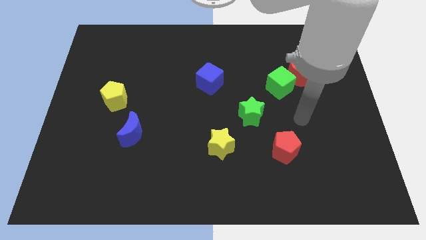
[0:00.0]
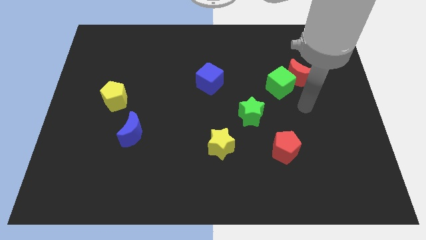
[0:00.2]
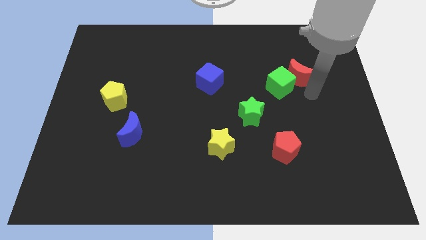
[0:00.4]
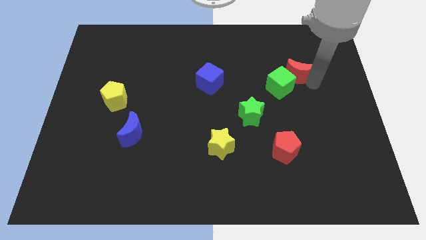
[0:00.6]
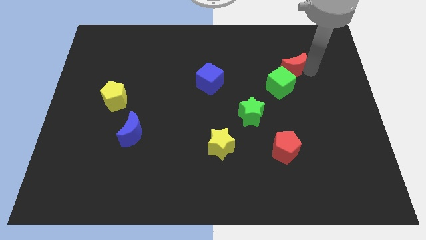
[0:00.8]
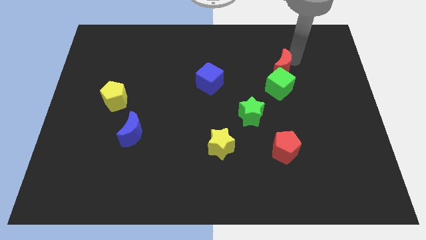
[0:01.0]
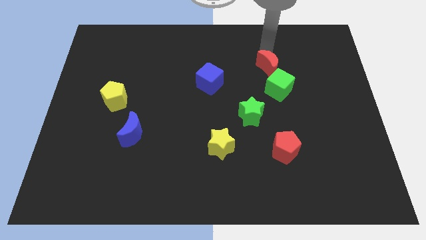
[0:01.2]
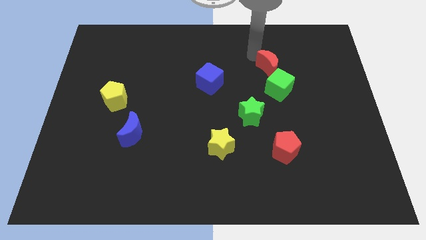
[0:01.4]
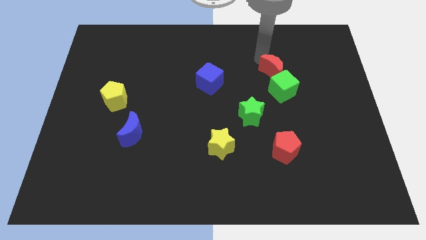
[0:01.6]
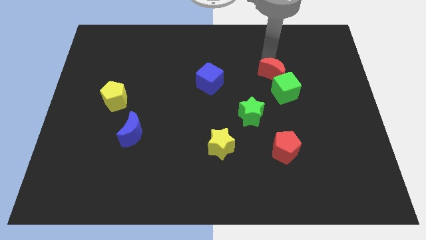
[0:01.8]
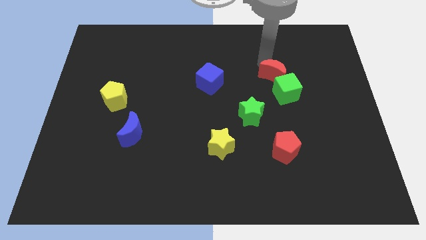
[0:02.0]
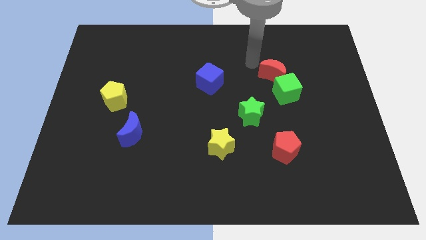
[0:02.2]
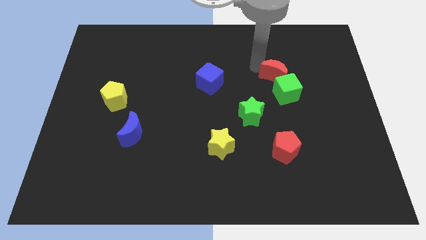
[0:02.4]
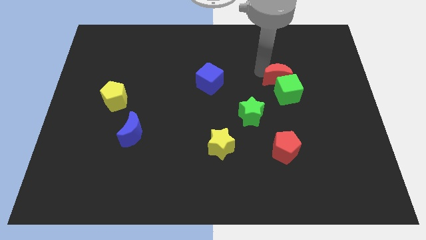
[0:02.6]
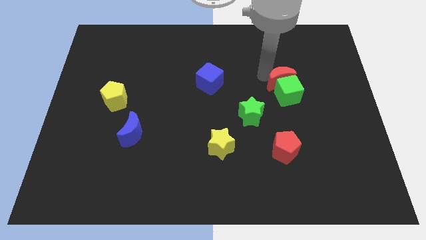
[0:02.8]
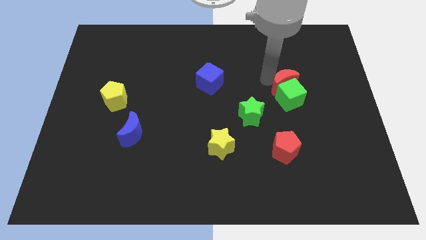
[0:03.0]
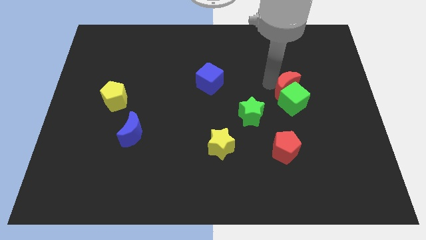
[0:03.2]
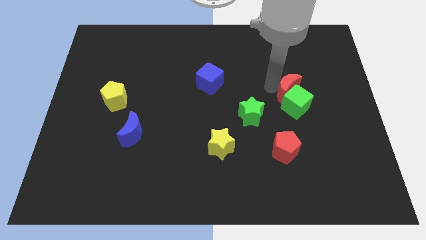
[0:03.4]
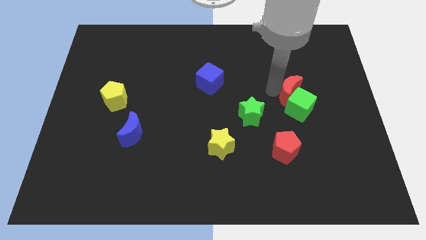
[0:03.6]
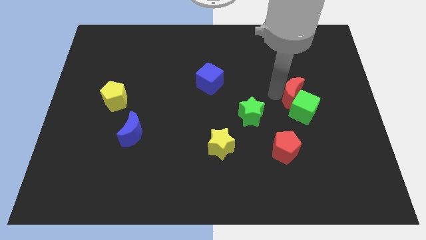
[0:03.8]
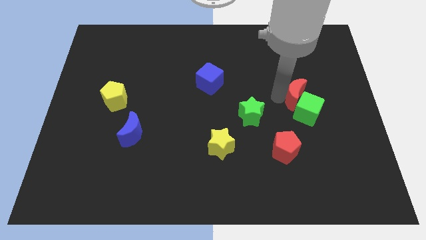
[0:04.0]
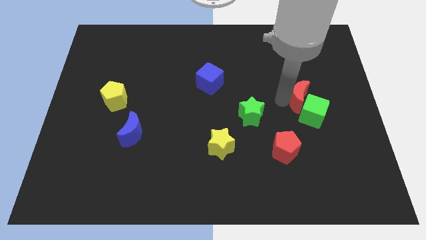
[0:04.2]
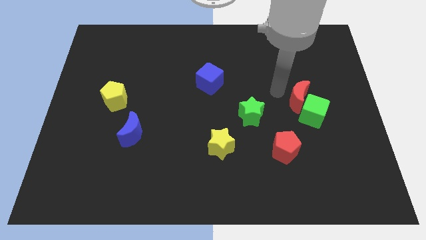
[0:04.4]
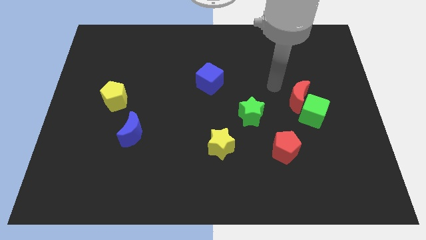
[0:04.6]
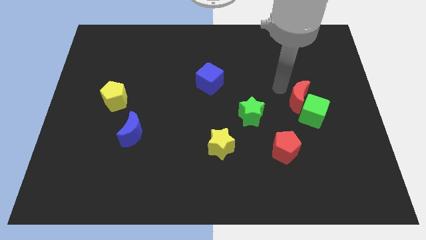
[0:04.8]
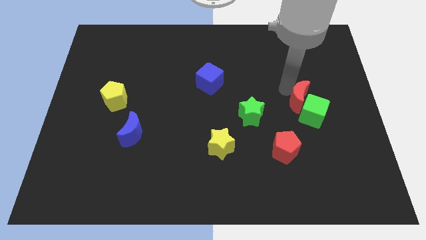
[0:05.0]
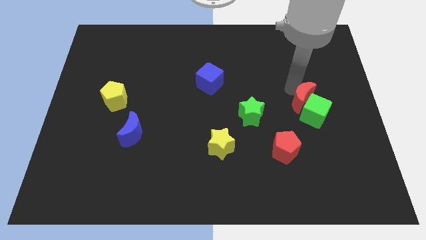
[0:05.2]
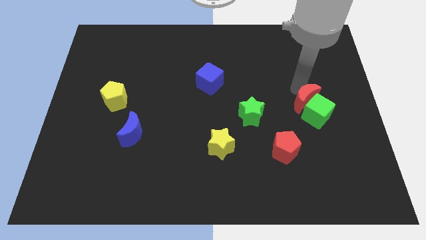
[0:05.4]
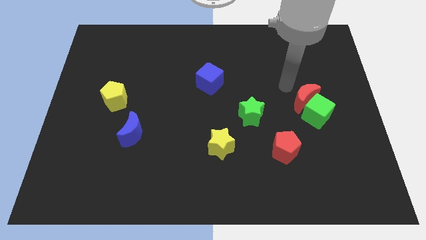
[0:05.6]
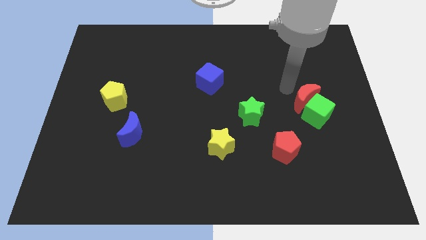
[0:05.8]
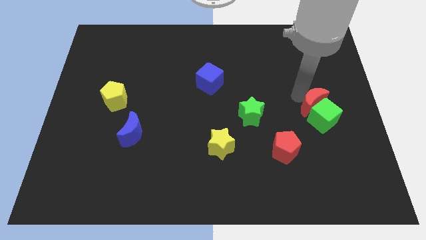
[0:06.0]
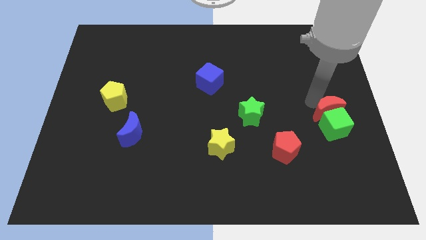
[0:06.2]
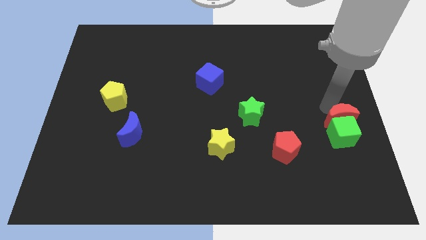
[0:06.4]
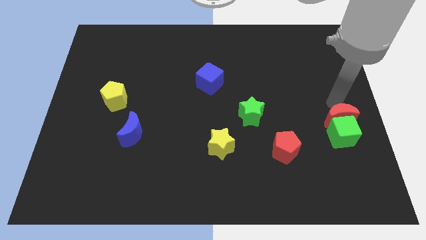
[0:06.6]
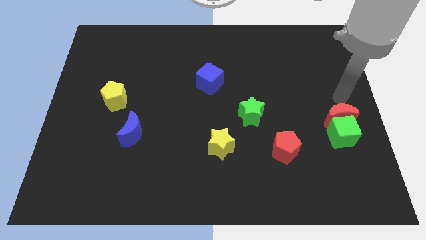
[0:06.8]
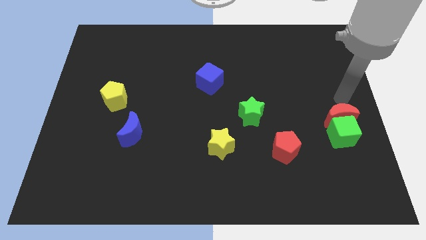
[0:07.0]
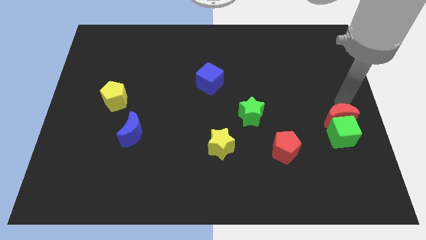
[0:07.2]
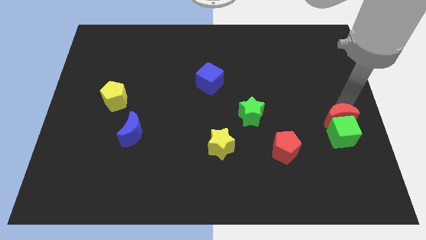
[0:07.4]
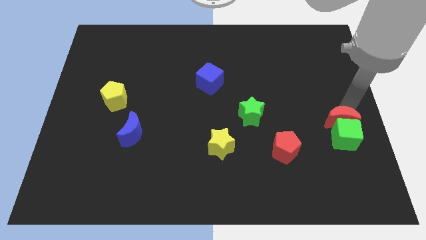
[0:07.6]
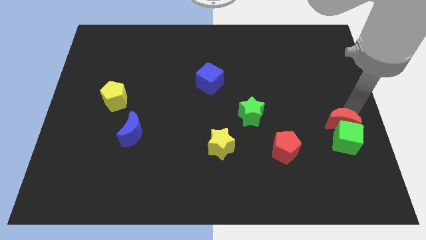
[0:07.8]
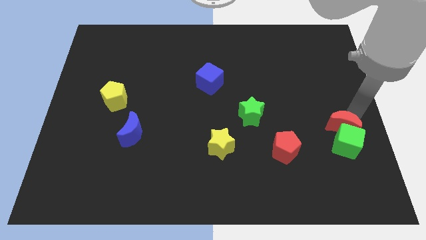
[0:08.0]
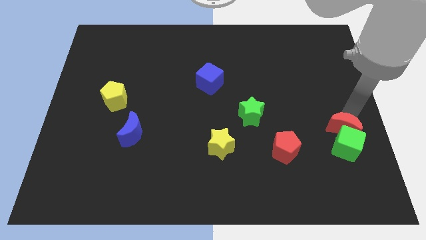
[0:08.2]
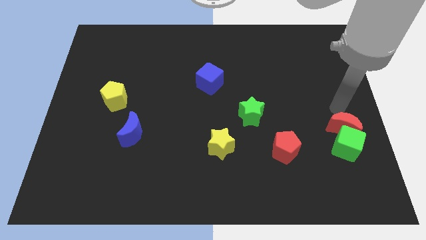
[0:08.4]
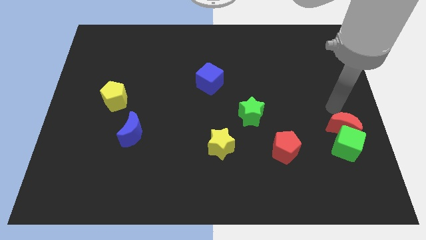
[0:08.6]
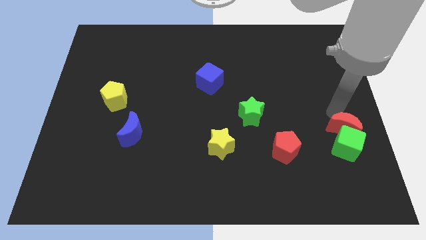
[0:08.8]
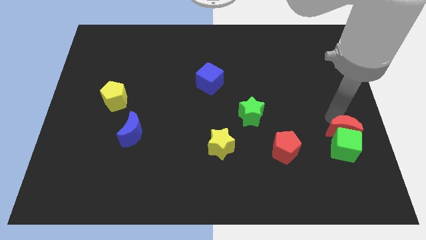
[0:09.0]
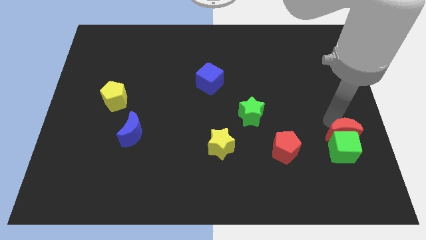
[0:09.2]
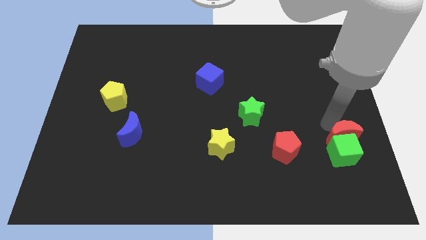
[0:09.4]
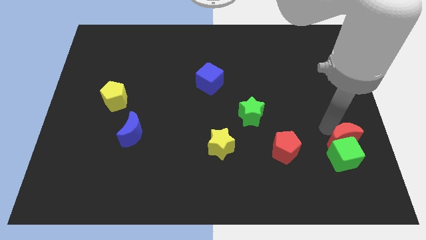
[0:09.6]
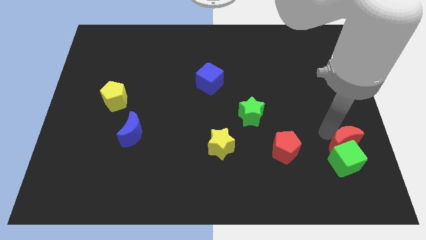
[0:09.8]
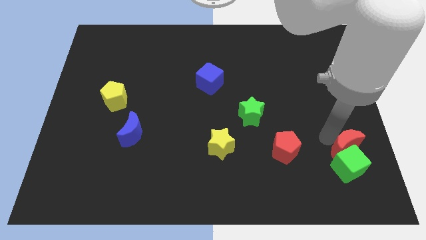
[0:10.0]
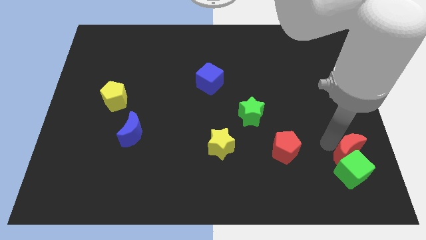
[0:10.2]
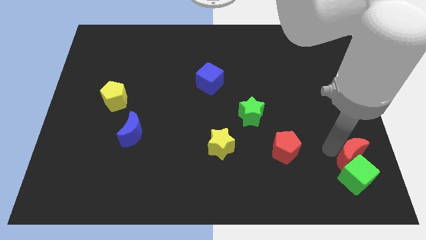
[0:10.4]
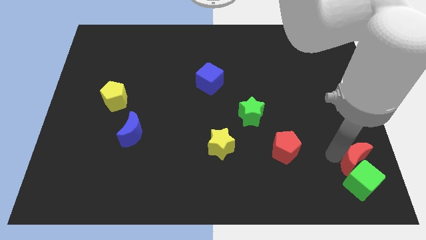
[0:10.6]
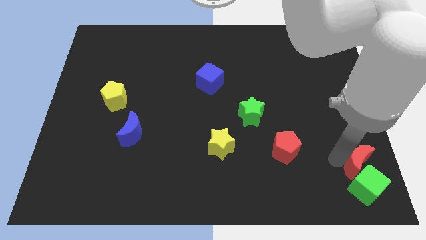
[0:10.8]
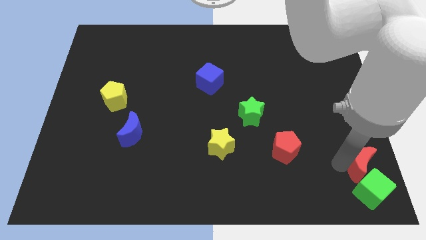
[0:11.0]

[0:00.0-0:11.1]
put the red moon to the lower right corner

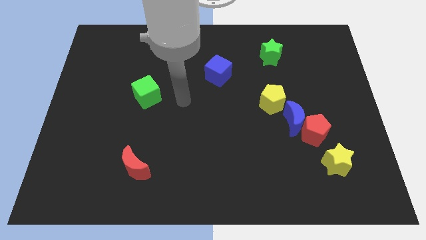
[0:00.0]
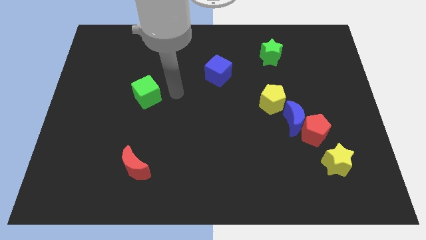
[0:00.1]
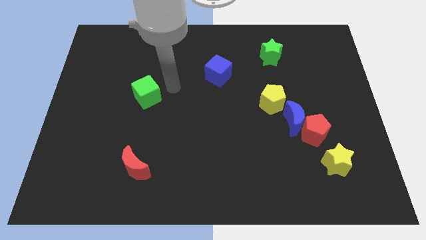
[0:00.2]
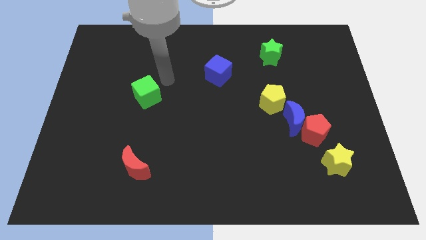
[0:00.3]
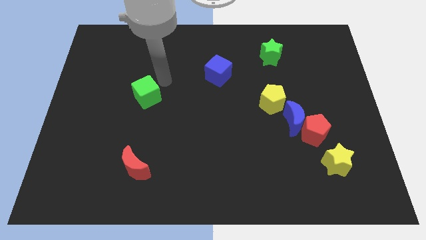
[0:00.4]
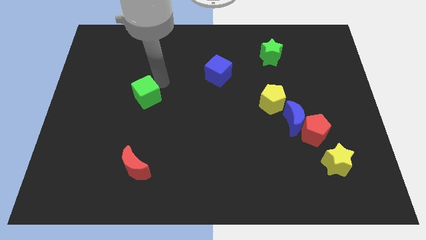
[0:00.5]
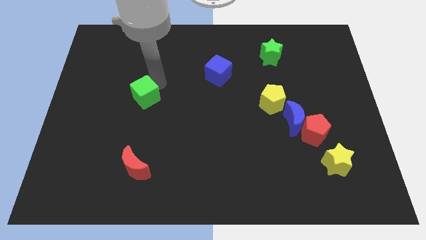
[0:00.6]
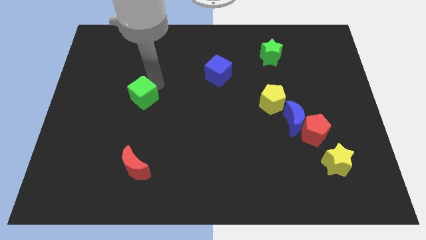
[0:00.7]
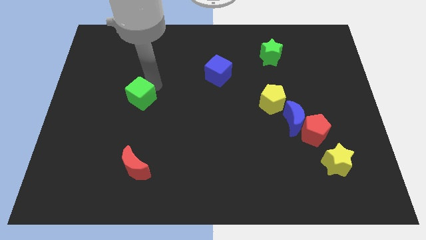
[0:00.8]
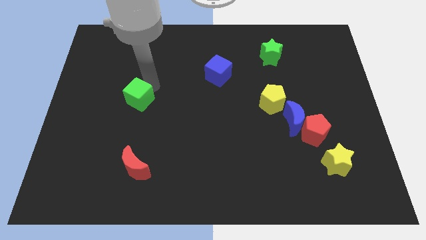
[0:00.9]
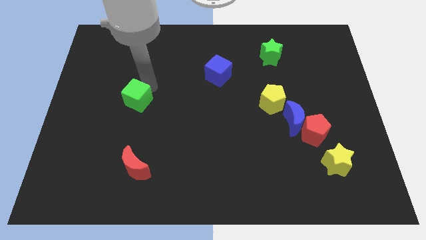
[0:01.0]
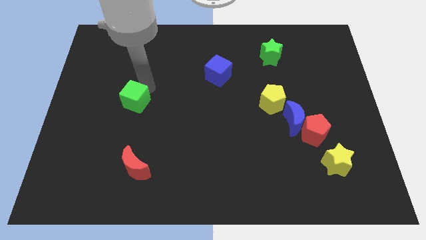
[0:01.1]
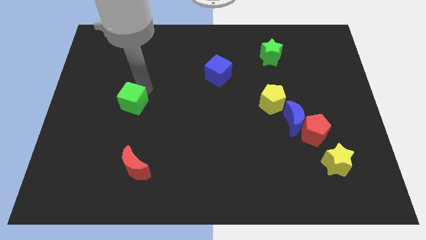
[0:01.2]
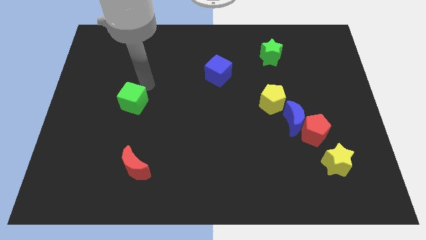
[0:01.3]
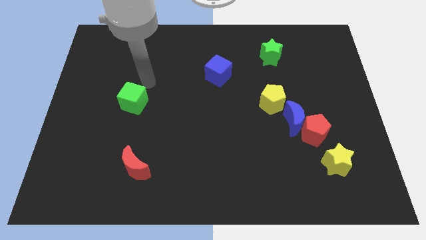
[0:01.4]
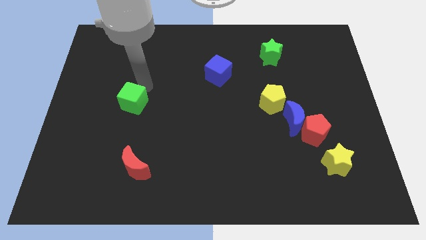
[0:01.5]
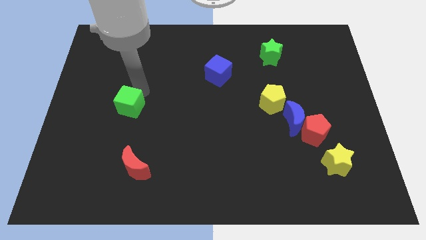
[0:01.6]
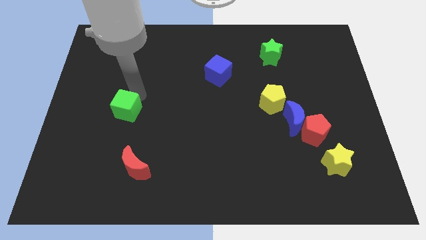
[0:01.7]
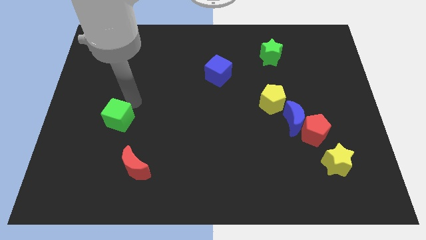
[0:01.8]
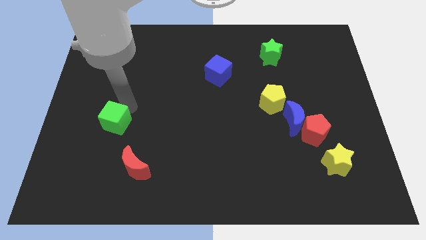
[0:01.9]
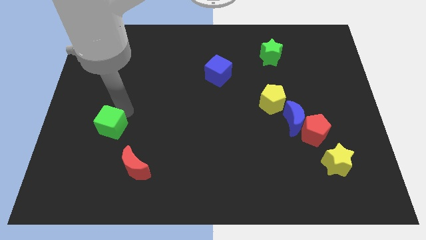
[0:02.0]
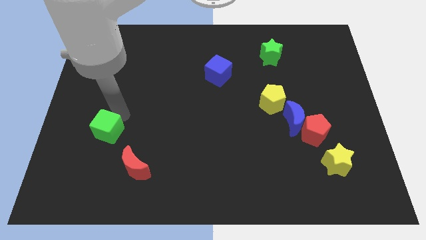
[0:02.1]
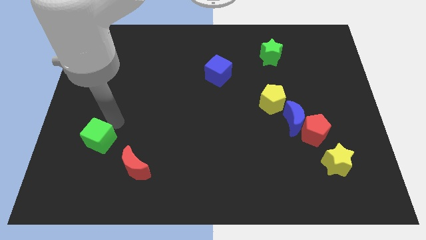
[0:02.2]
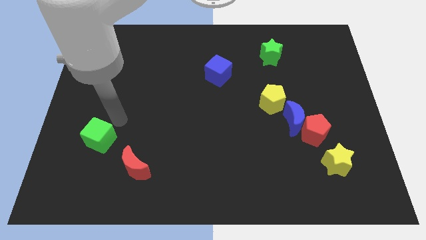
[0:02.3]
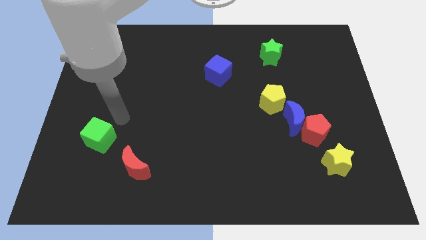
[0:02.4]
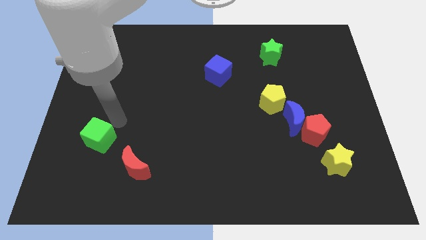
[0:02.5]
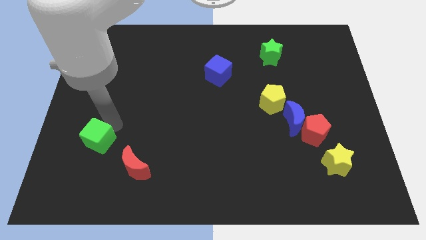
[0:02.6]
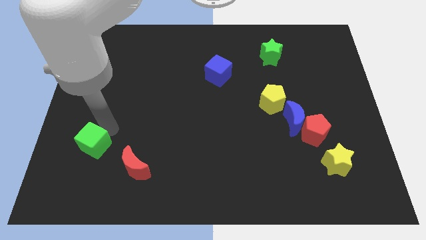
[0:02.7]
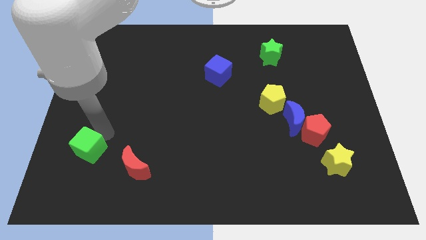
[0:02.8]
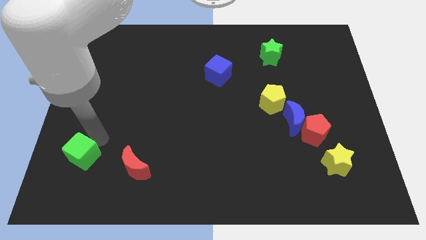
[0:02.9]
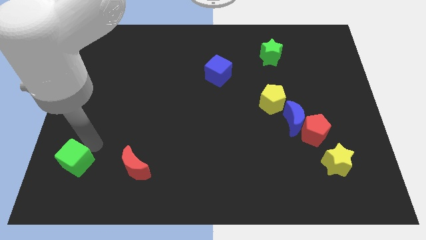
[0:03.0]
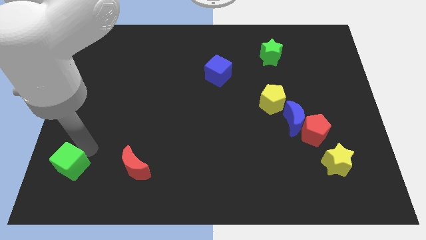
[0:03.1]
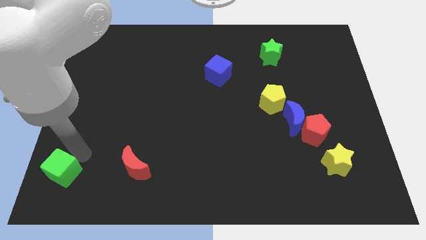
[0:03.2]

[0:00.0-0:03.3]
move the green cube to the lower left corner
